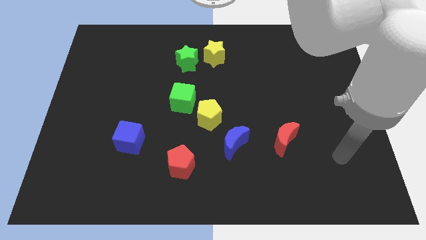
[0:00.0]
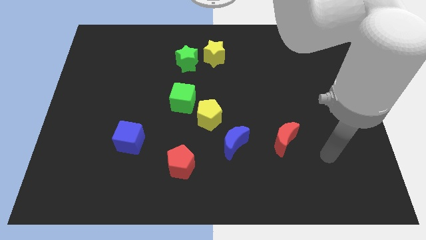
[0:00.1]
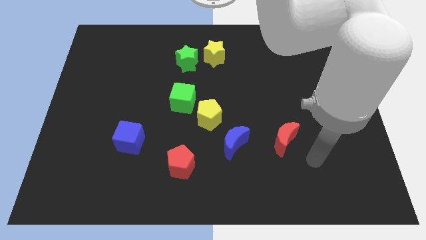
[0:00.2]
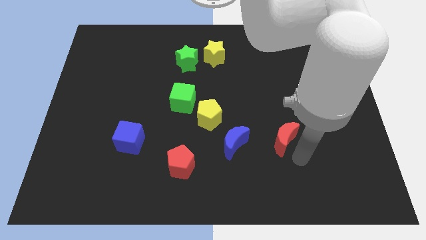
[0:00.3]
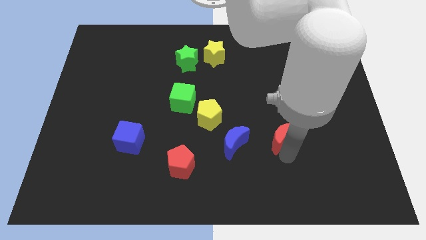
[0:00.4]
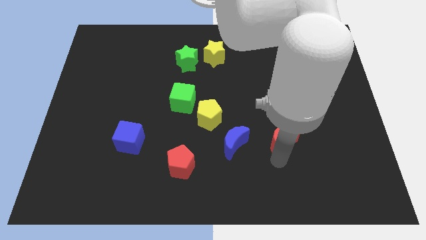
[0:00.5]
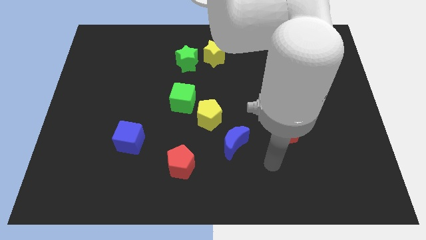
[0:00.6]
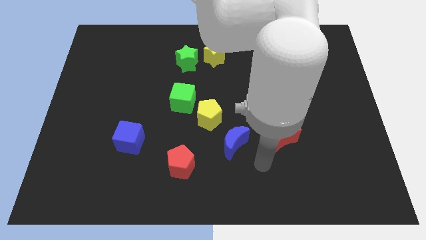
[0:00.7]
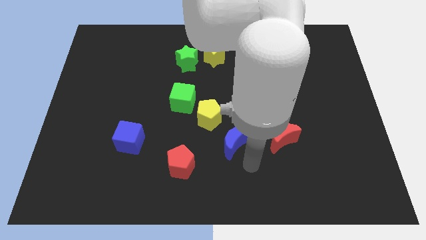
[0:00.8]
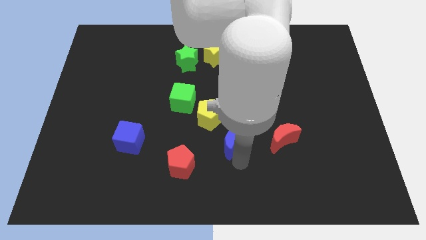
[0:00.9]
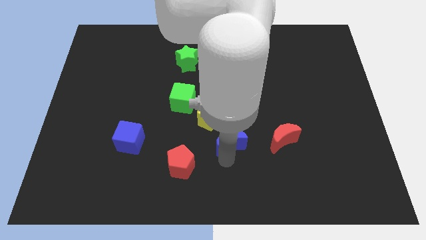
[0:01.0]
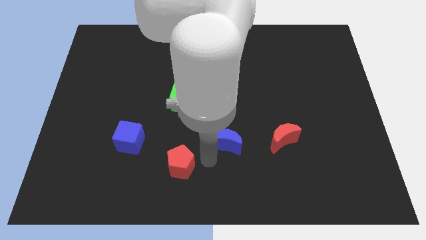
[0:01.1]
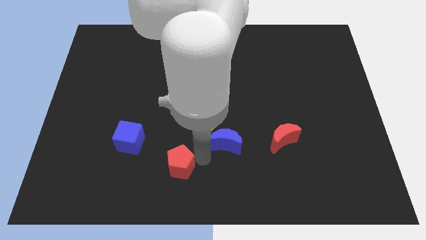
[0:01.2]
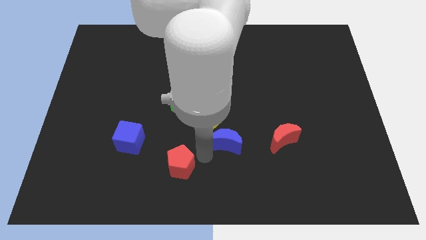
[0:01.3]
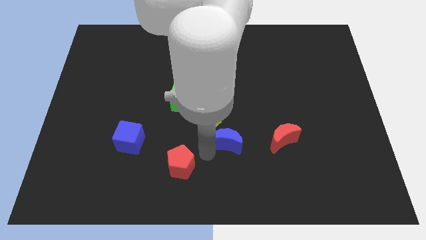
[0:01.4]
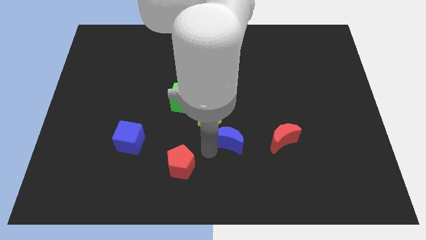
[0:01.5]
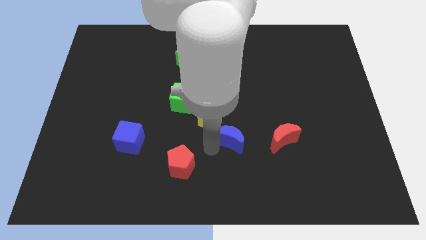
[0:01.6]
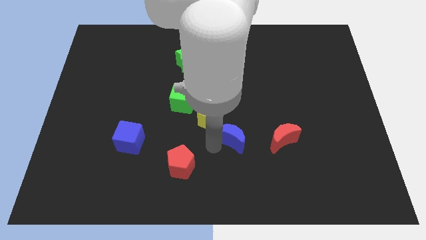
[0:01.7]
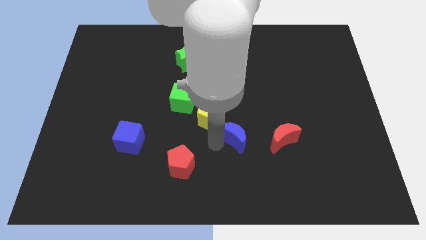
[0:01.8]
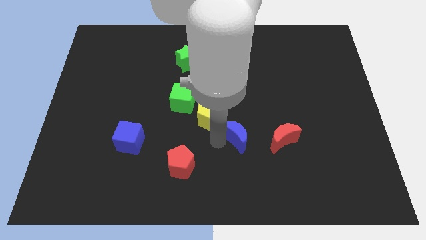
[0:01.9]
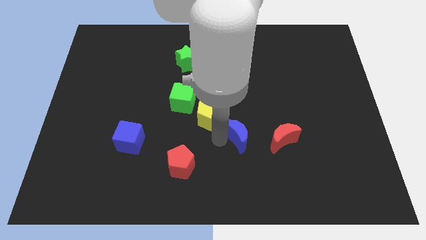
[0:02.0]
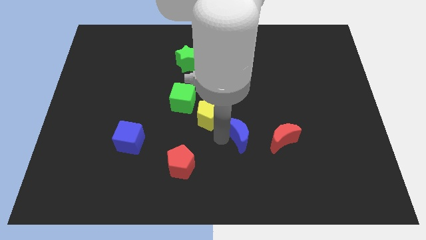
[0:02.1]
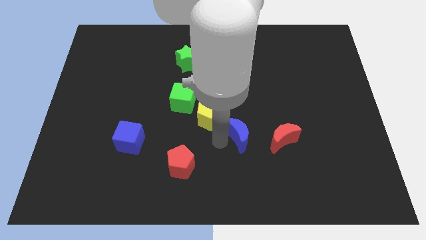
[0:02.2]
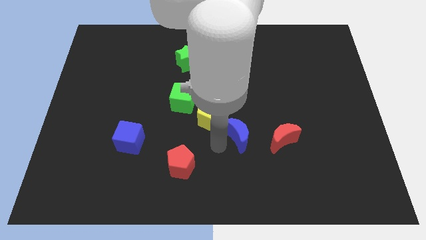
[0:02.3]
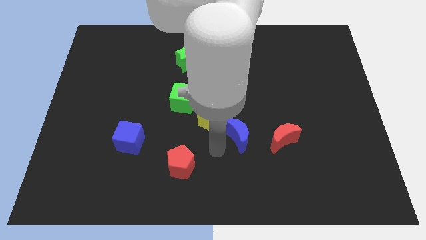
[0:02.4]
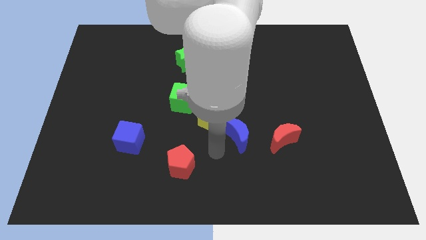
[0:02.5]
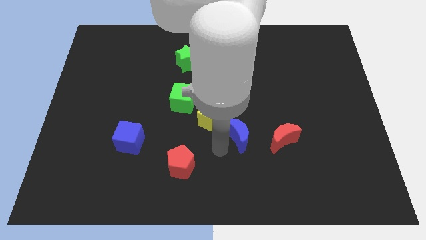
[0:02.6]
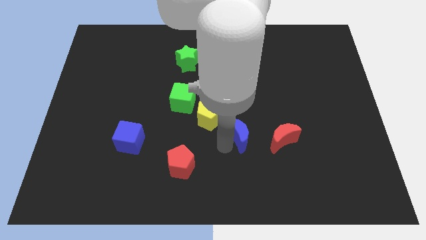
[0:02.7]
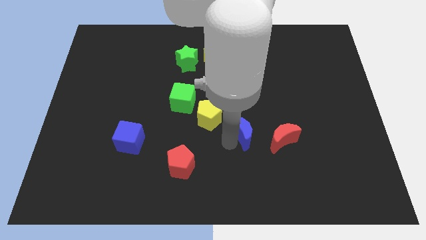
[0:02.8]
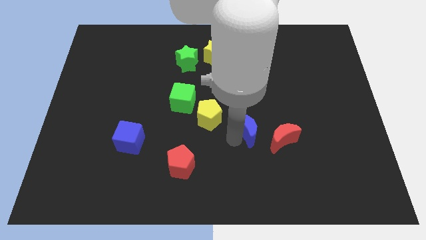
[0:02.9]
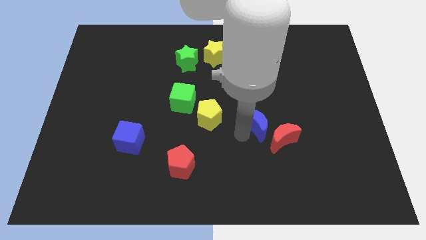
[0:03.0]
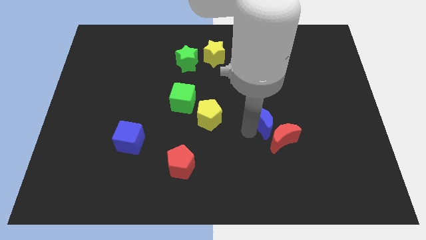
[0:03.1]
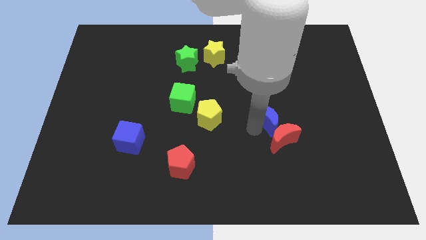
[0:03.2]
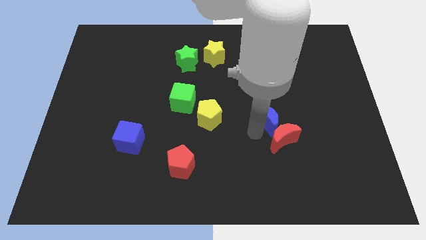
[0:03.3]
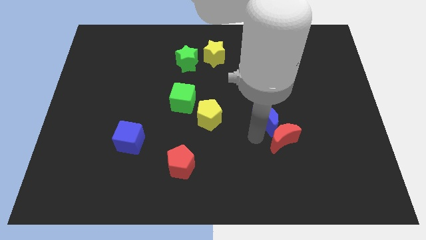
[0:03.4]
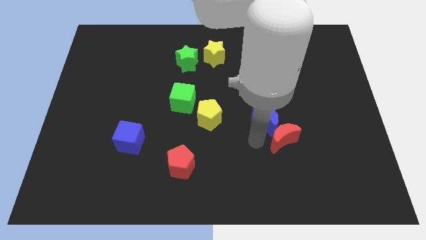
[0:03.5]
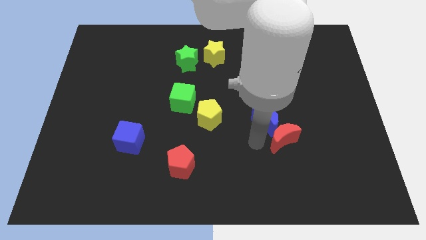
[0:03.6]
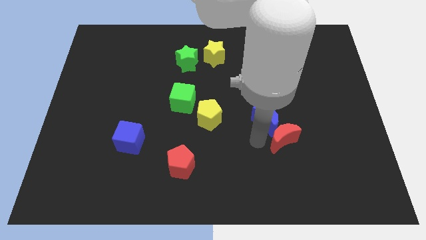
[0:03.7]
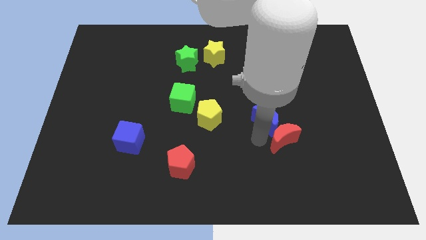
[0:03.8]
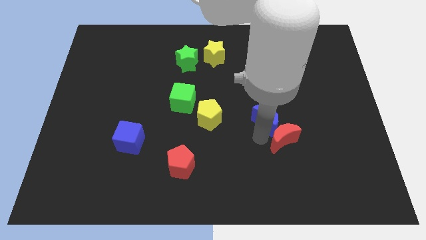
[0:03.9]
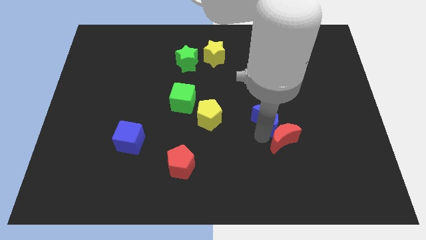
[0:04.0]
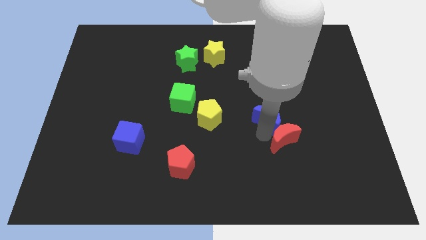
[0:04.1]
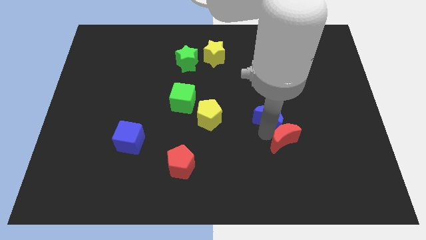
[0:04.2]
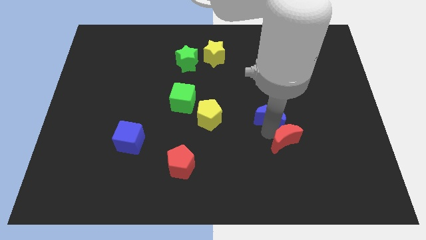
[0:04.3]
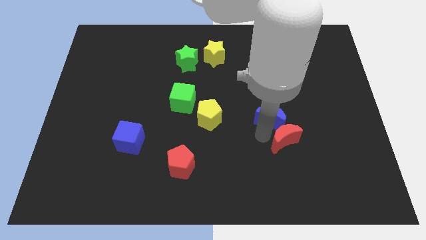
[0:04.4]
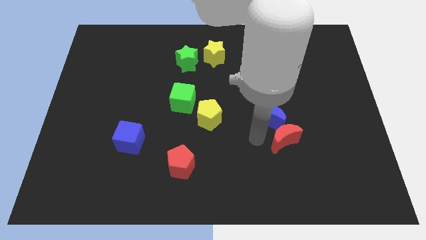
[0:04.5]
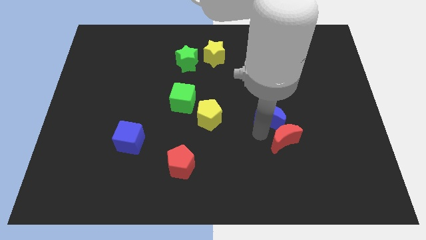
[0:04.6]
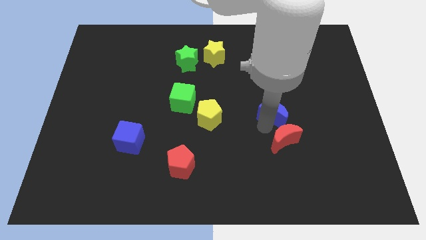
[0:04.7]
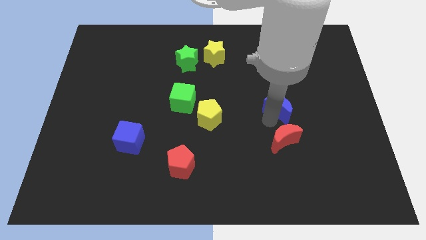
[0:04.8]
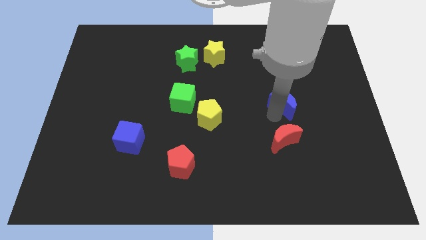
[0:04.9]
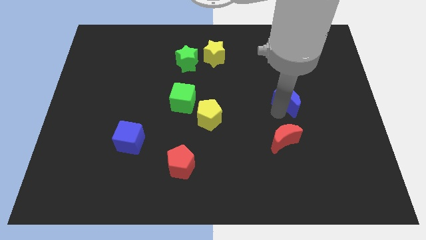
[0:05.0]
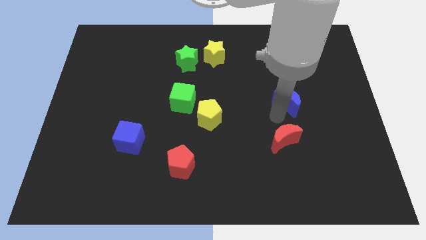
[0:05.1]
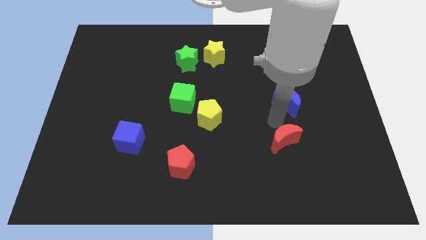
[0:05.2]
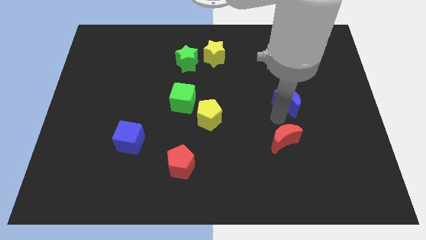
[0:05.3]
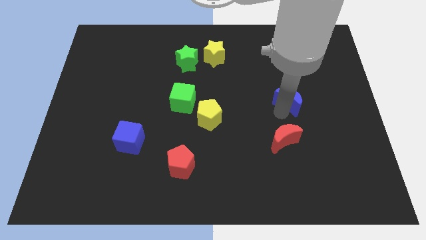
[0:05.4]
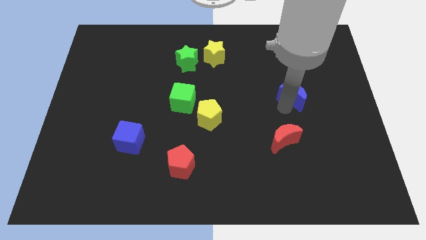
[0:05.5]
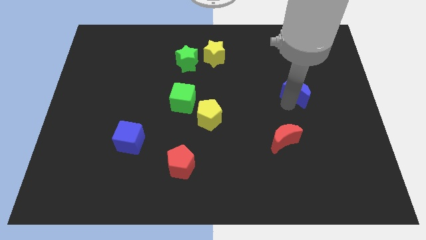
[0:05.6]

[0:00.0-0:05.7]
move the blue moon upwards and to the right

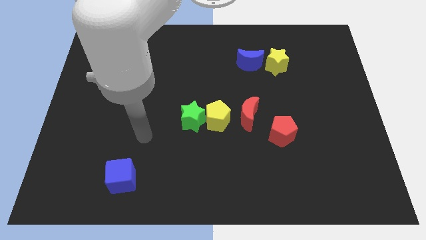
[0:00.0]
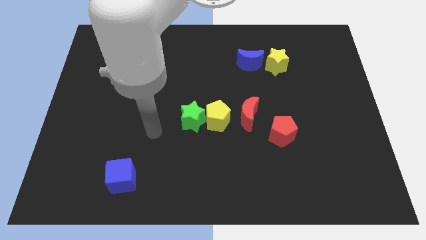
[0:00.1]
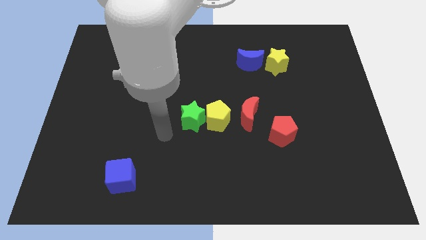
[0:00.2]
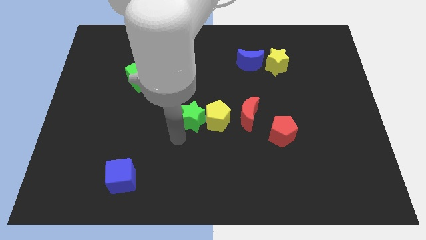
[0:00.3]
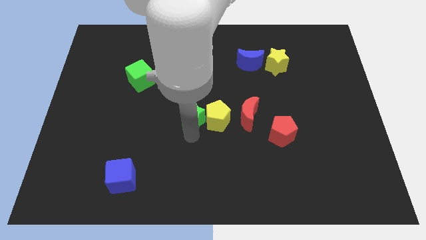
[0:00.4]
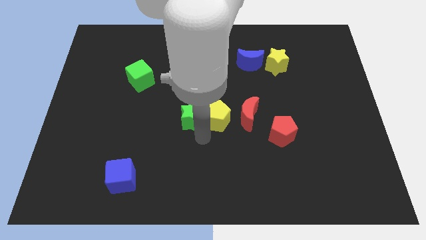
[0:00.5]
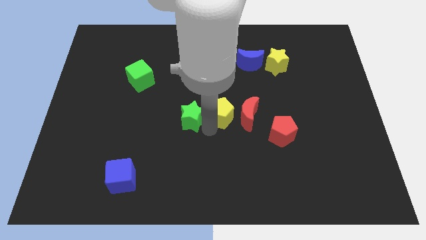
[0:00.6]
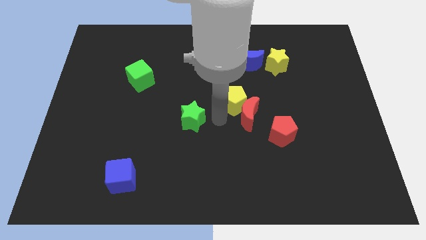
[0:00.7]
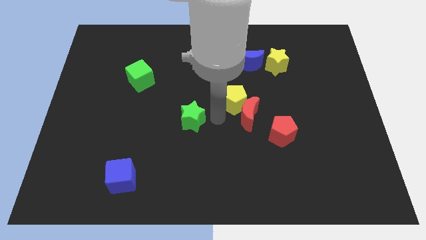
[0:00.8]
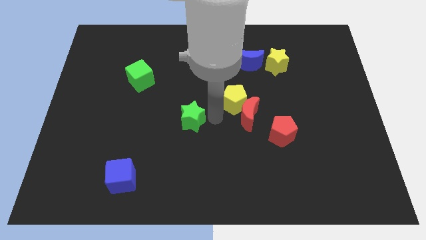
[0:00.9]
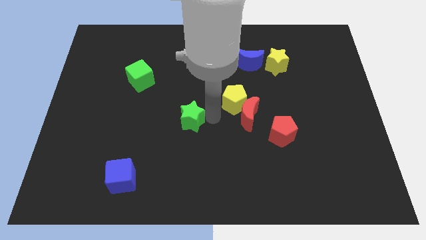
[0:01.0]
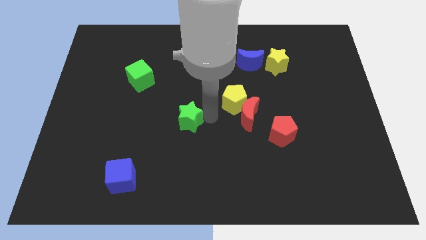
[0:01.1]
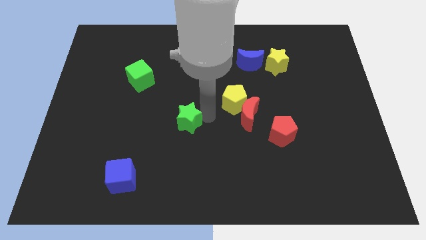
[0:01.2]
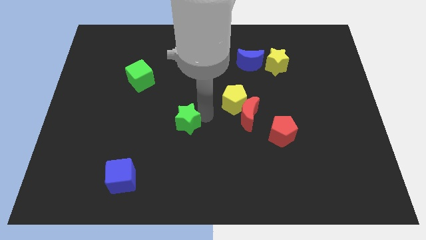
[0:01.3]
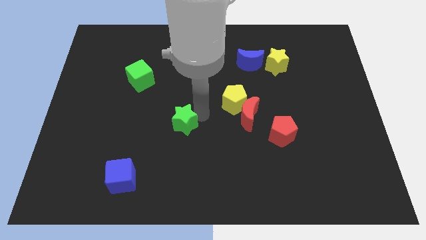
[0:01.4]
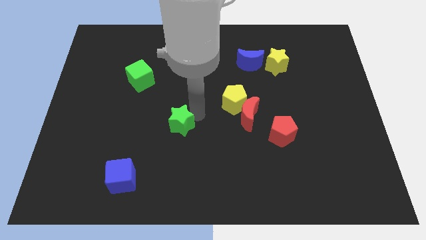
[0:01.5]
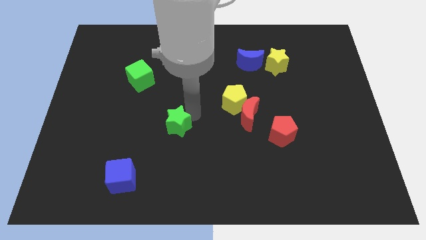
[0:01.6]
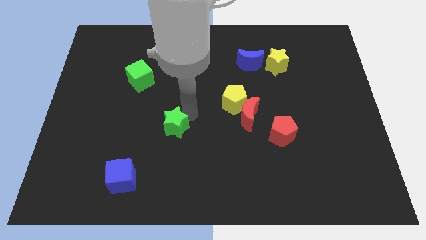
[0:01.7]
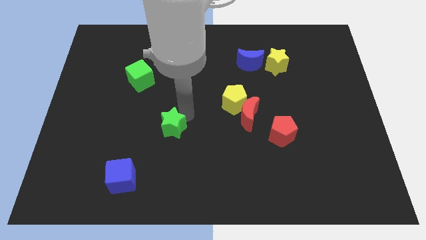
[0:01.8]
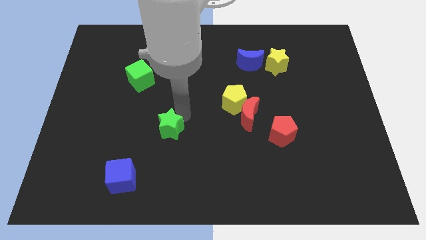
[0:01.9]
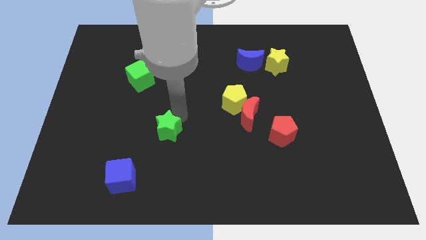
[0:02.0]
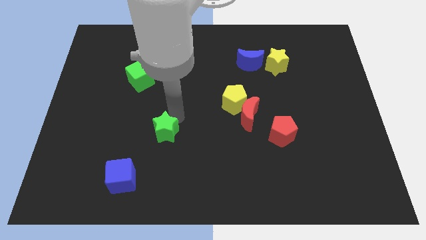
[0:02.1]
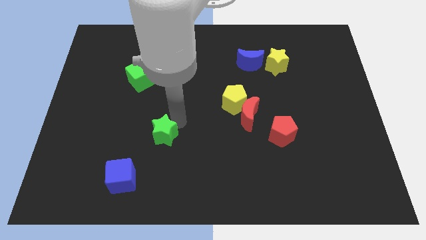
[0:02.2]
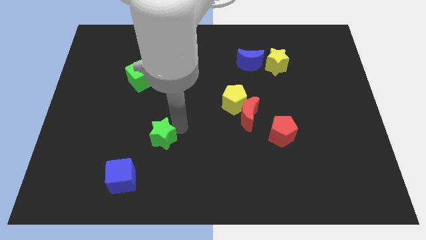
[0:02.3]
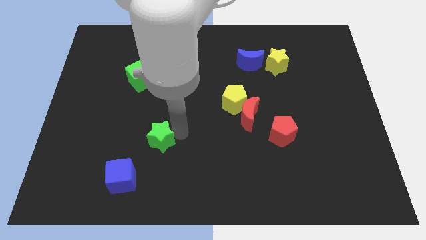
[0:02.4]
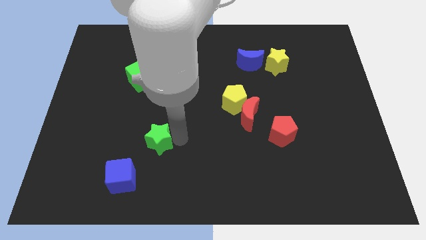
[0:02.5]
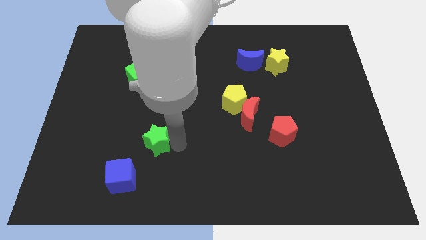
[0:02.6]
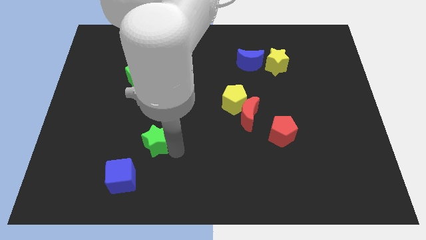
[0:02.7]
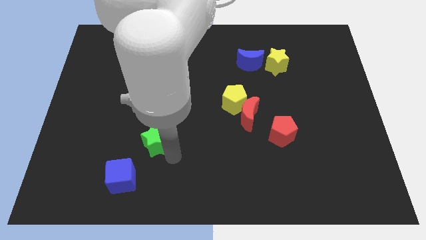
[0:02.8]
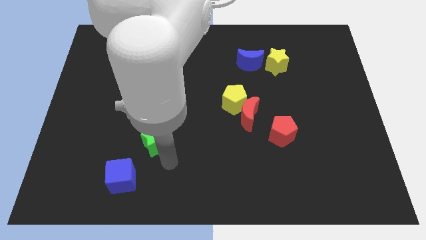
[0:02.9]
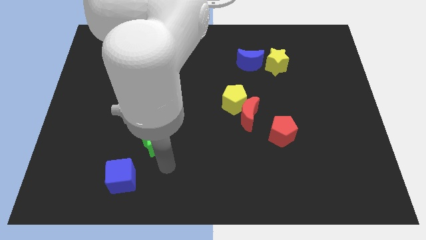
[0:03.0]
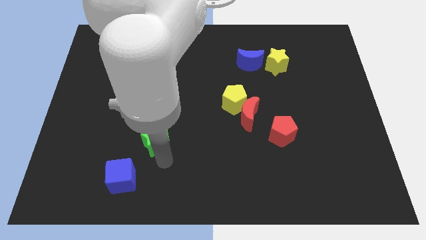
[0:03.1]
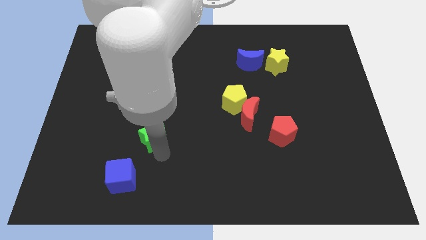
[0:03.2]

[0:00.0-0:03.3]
move the green star to the left a little
